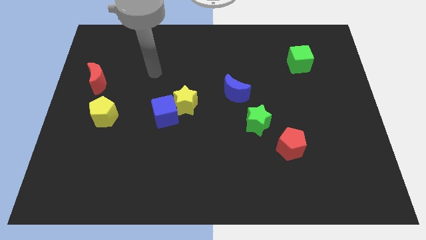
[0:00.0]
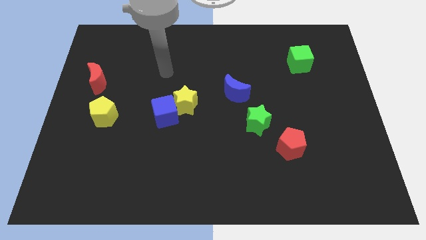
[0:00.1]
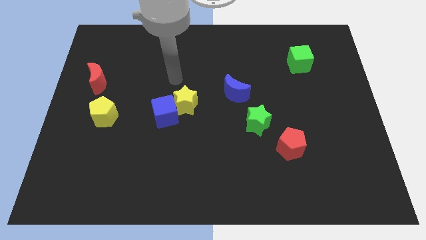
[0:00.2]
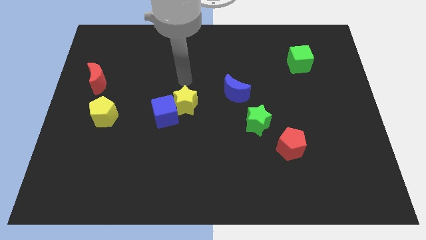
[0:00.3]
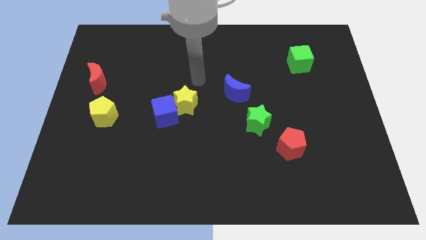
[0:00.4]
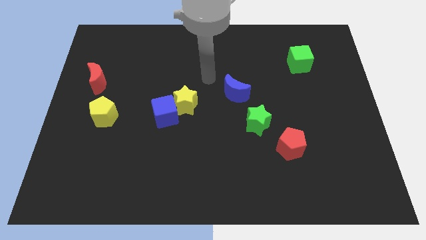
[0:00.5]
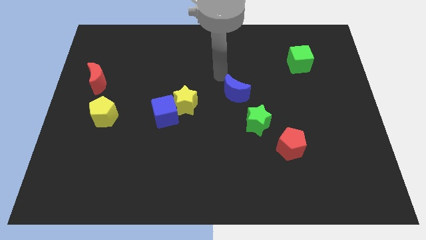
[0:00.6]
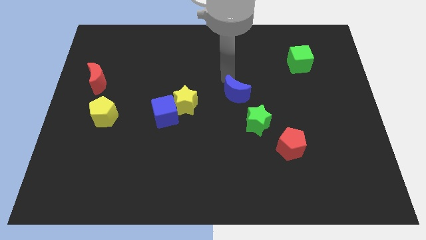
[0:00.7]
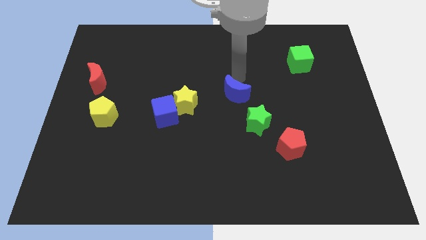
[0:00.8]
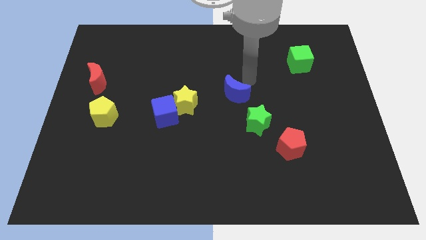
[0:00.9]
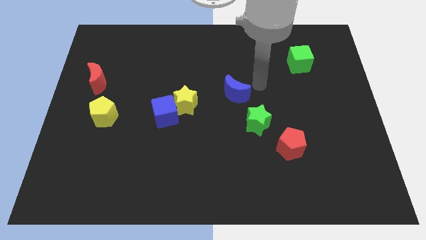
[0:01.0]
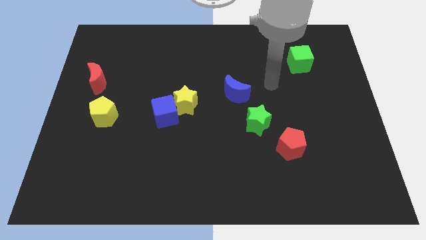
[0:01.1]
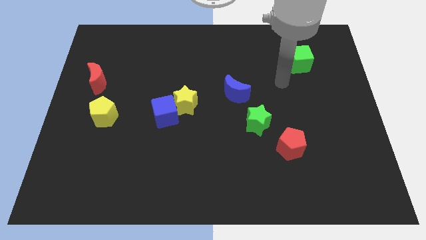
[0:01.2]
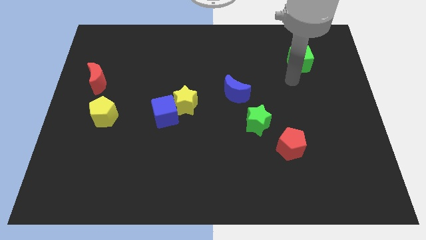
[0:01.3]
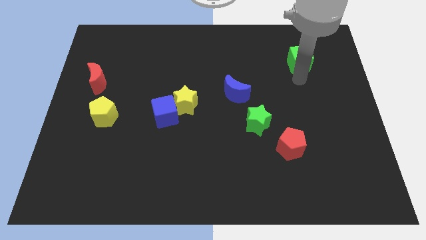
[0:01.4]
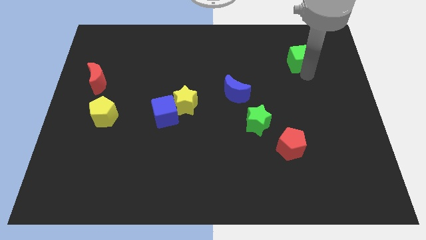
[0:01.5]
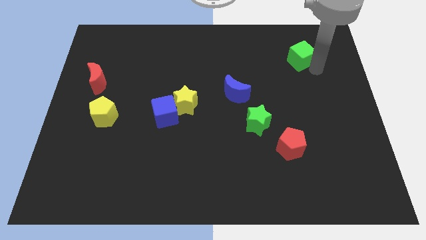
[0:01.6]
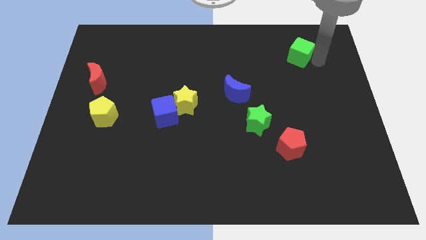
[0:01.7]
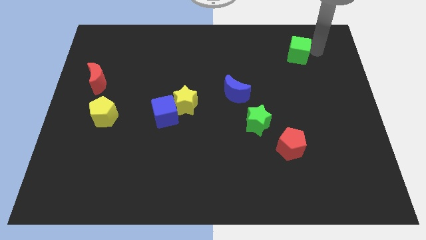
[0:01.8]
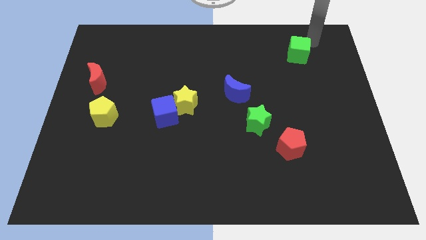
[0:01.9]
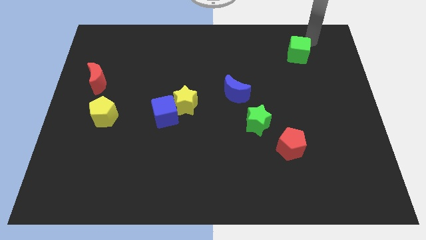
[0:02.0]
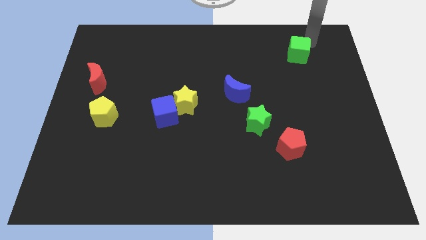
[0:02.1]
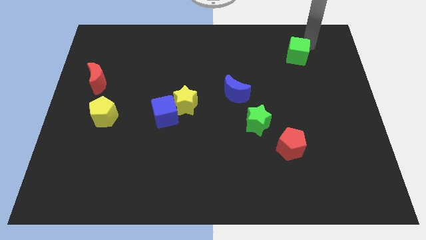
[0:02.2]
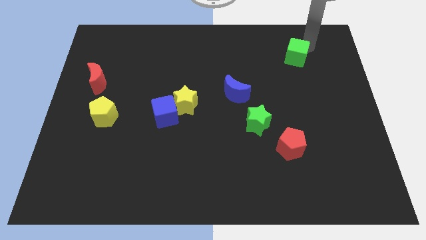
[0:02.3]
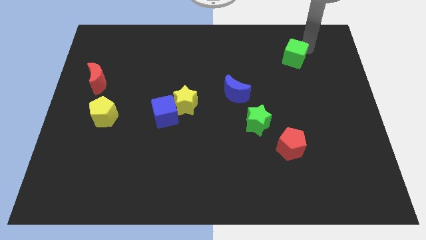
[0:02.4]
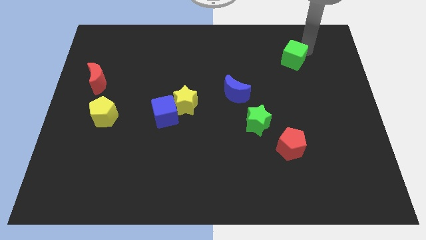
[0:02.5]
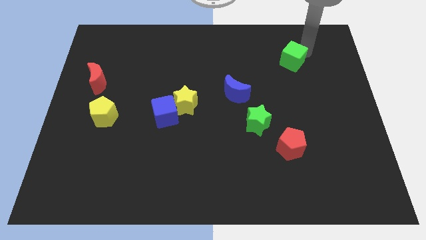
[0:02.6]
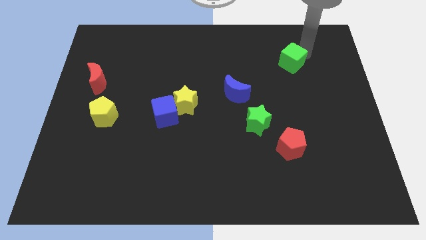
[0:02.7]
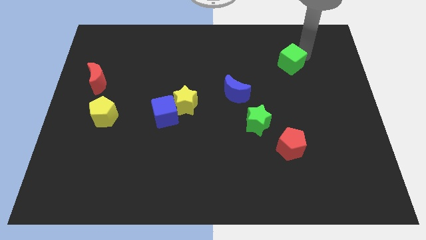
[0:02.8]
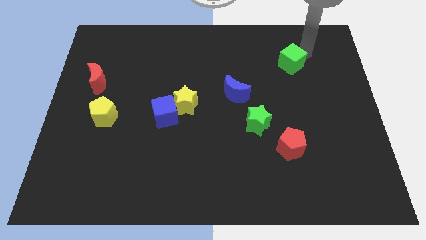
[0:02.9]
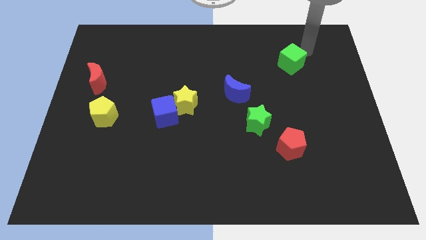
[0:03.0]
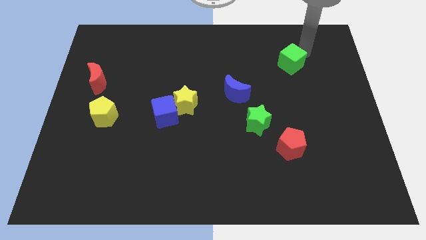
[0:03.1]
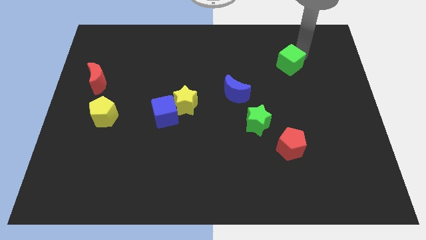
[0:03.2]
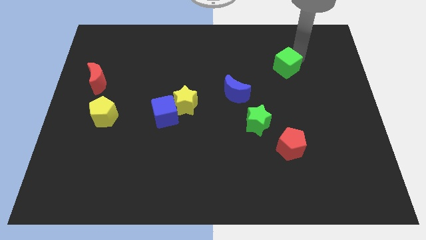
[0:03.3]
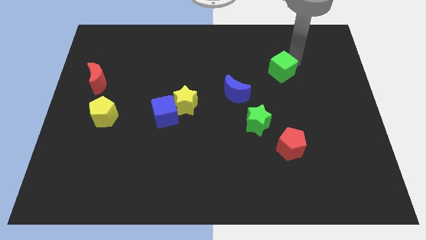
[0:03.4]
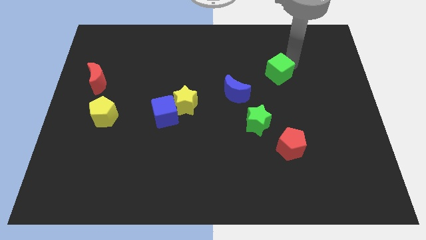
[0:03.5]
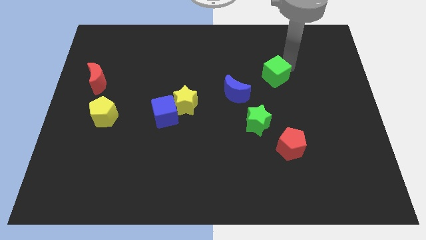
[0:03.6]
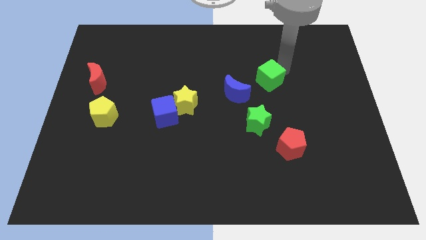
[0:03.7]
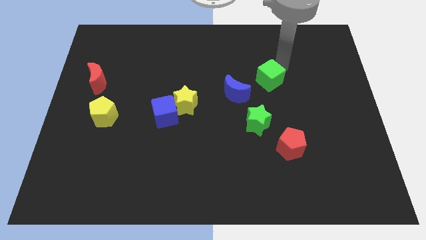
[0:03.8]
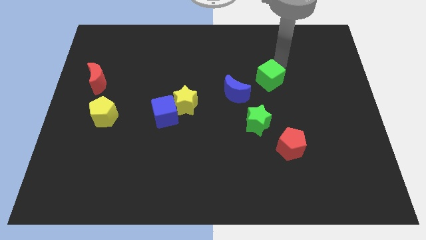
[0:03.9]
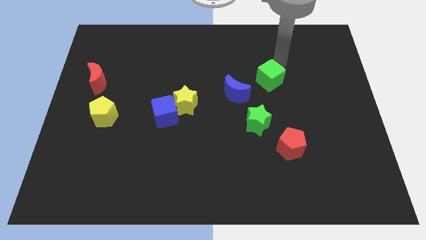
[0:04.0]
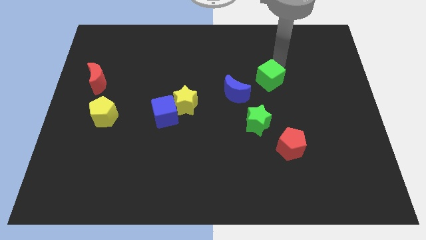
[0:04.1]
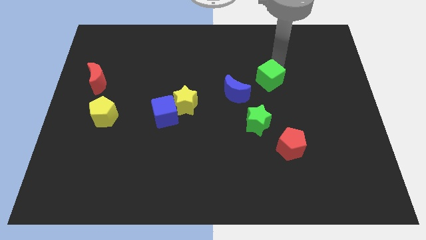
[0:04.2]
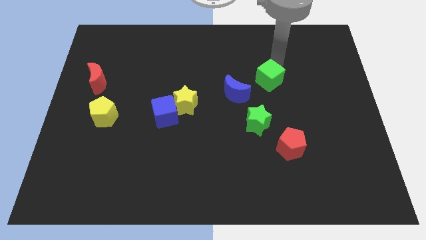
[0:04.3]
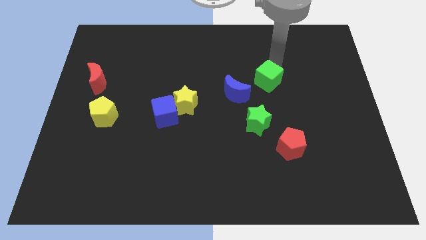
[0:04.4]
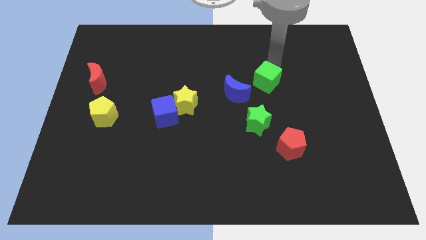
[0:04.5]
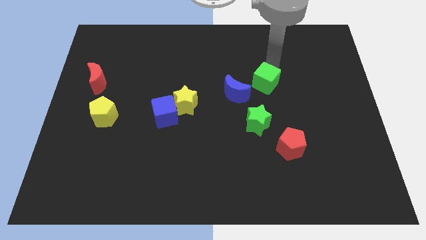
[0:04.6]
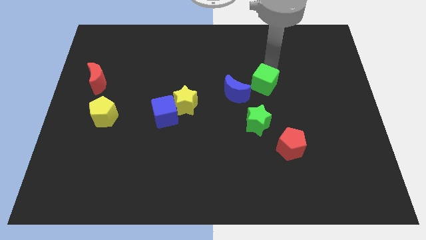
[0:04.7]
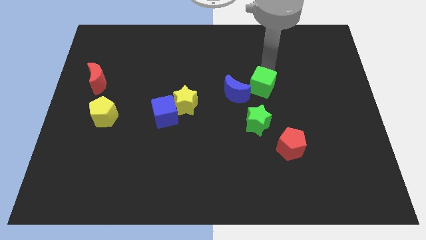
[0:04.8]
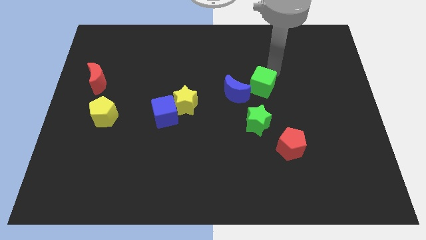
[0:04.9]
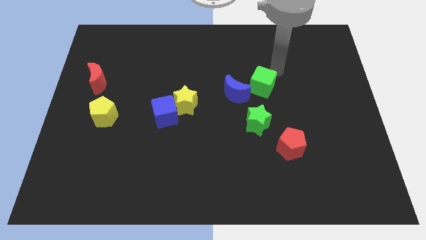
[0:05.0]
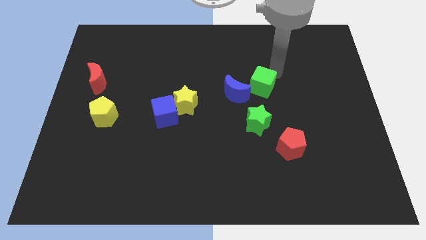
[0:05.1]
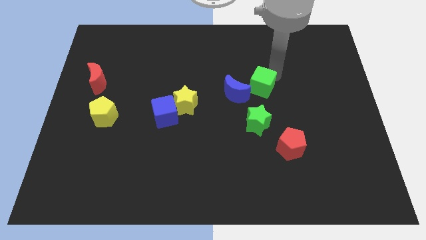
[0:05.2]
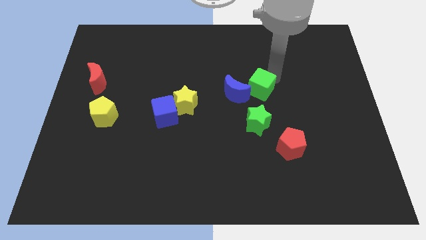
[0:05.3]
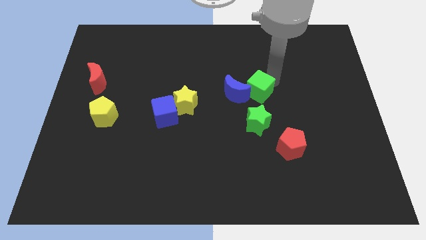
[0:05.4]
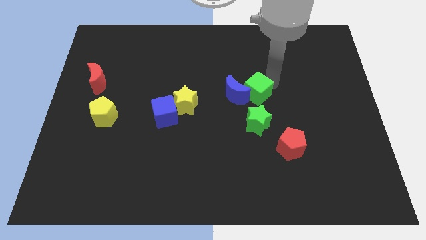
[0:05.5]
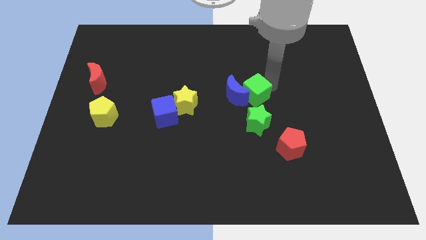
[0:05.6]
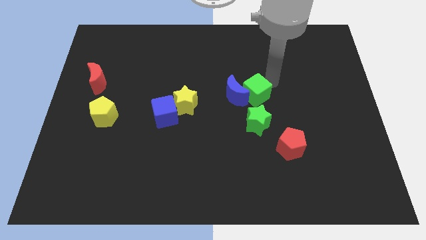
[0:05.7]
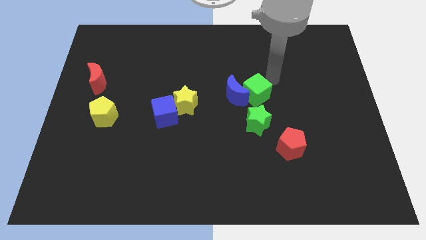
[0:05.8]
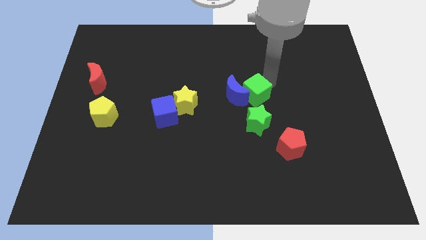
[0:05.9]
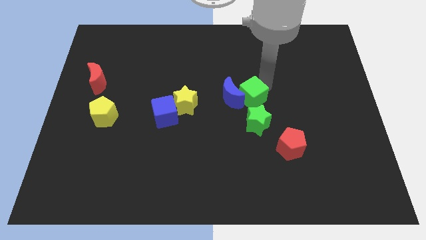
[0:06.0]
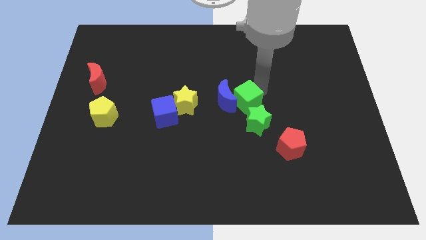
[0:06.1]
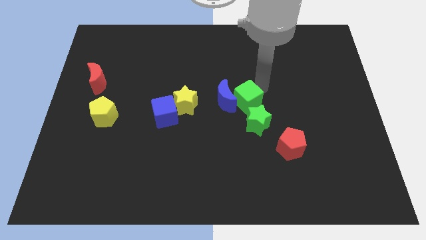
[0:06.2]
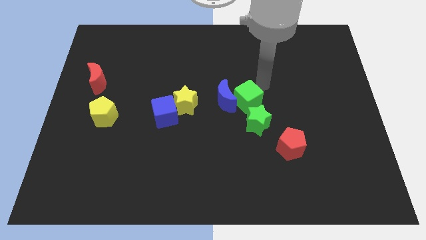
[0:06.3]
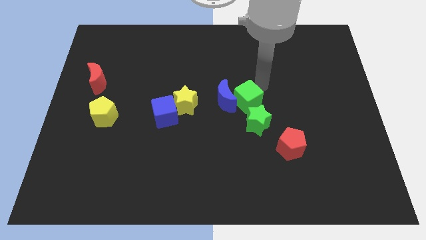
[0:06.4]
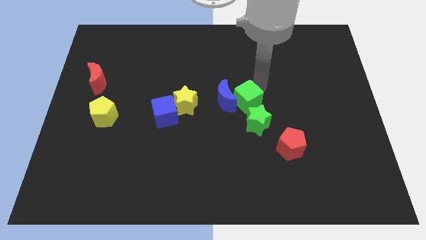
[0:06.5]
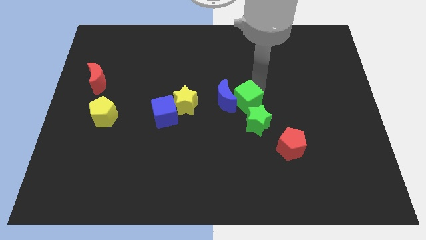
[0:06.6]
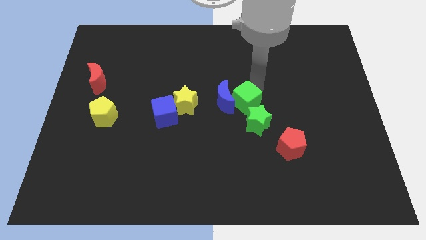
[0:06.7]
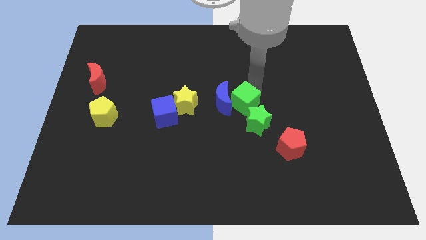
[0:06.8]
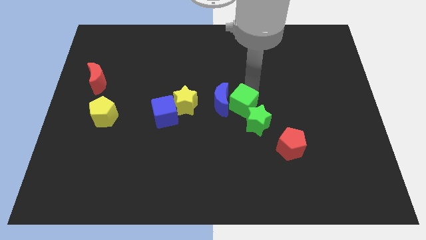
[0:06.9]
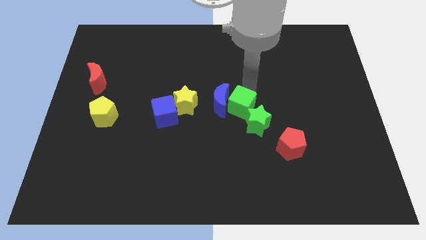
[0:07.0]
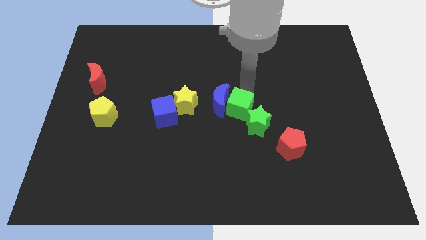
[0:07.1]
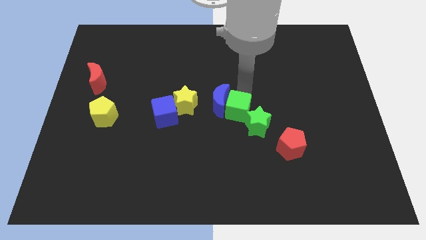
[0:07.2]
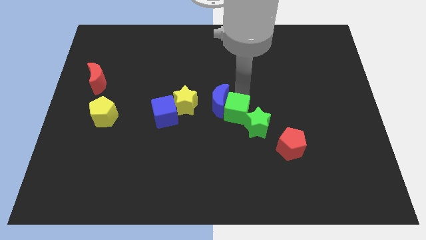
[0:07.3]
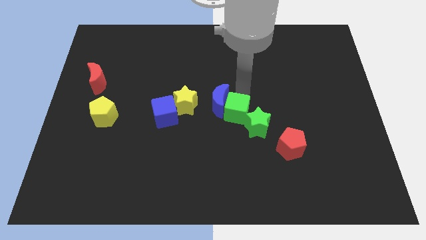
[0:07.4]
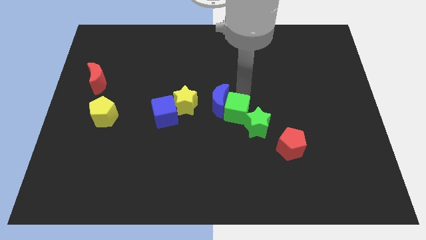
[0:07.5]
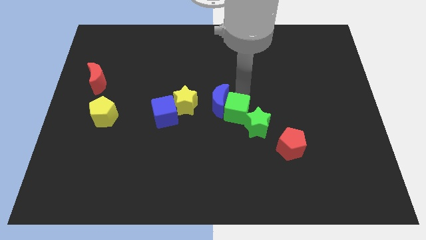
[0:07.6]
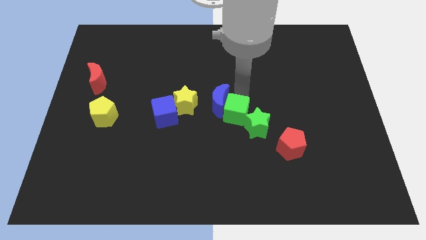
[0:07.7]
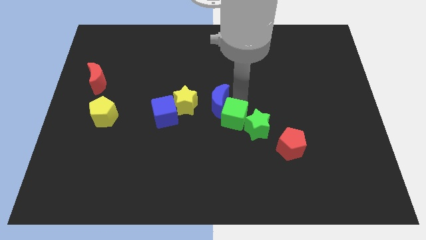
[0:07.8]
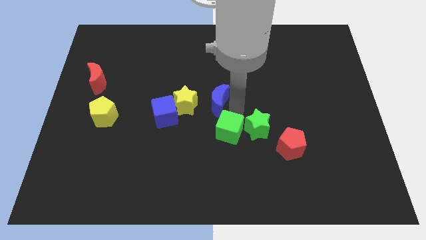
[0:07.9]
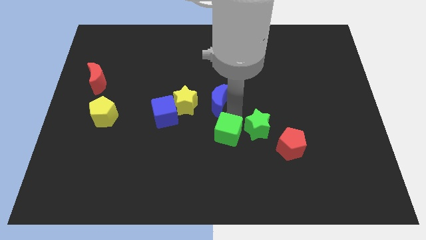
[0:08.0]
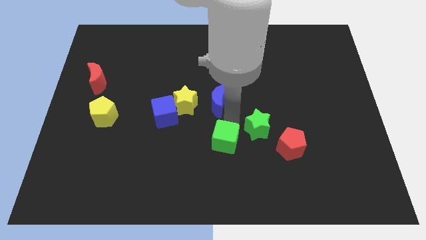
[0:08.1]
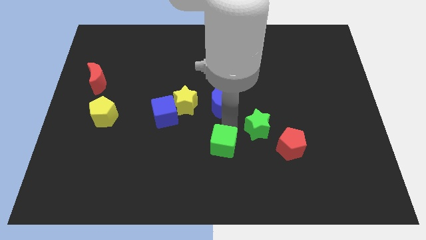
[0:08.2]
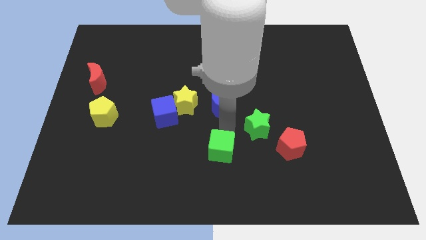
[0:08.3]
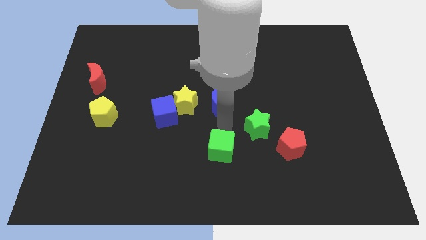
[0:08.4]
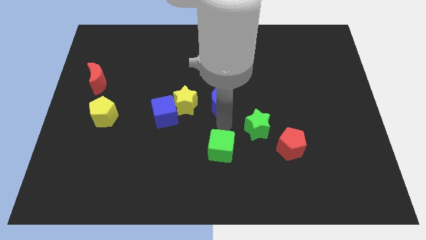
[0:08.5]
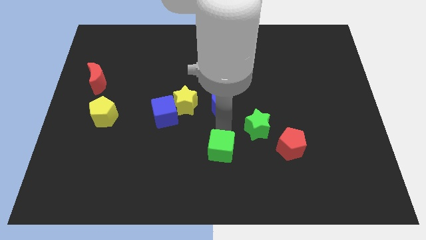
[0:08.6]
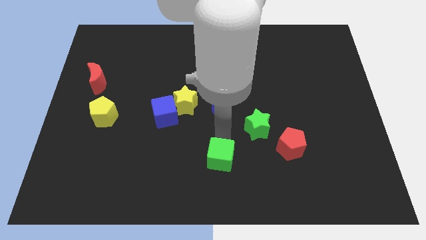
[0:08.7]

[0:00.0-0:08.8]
move the green cube to the bottom
